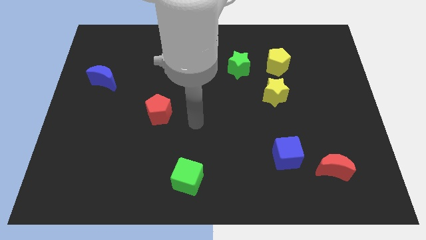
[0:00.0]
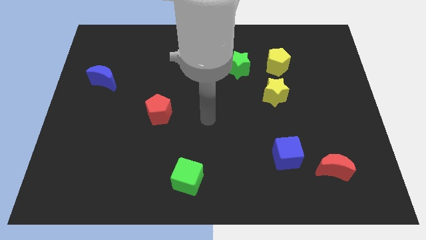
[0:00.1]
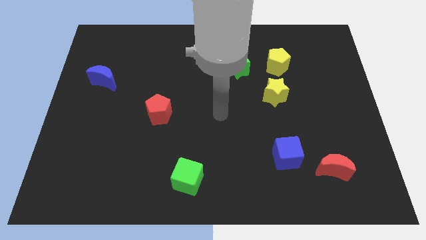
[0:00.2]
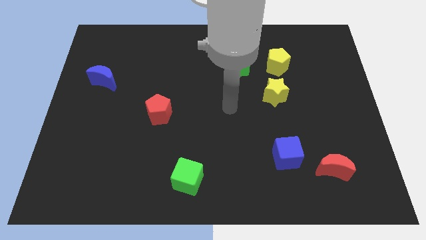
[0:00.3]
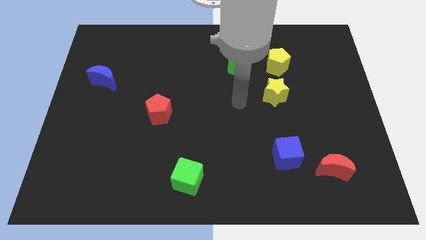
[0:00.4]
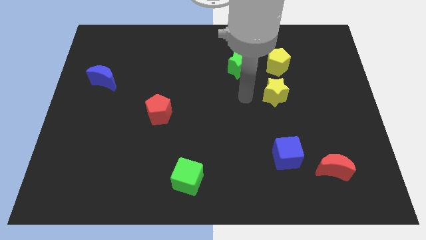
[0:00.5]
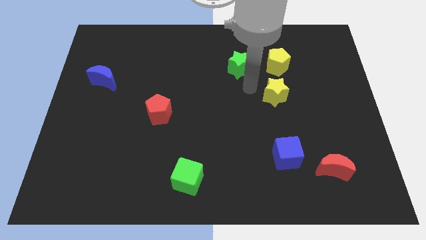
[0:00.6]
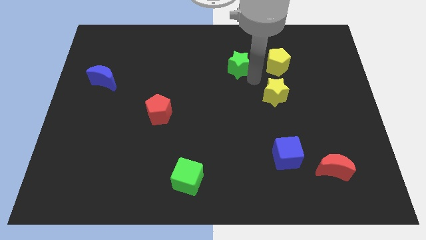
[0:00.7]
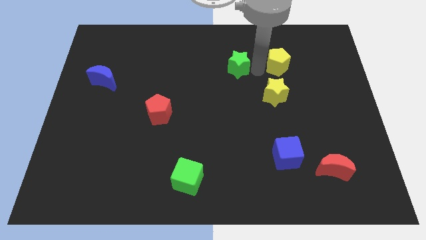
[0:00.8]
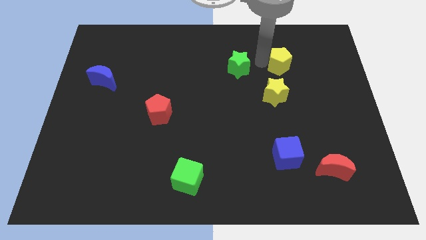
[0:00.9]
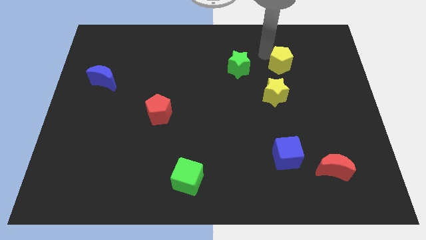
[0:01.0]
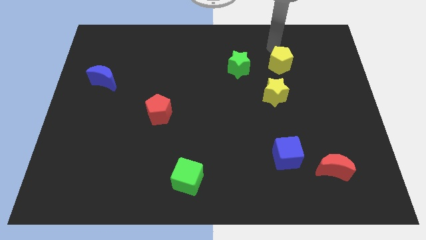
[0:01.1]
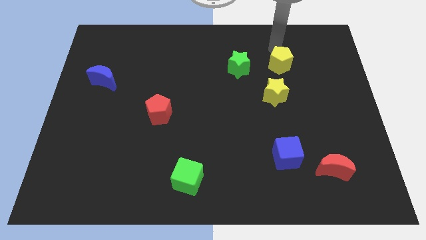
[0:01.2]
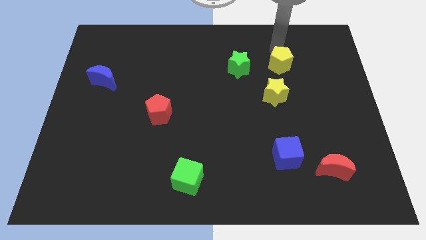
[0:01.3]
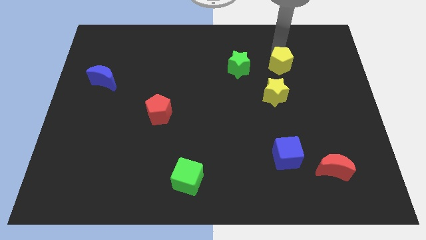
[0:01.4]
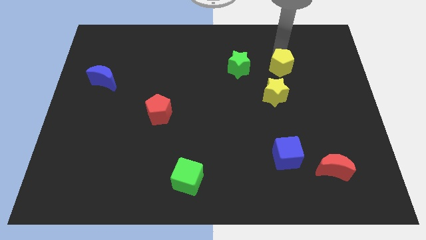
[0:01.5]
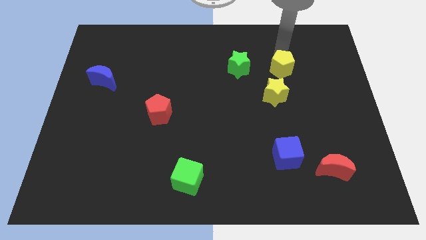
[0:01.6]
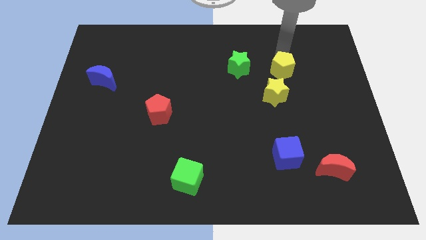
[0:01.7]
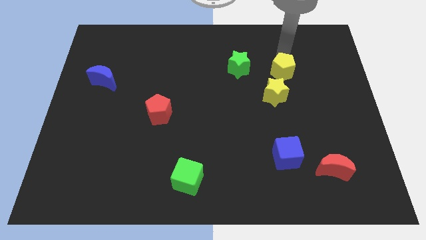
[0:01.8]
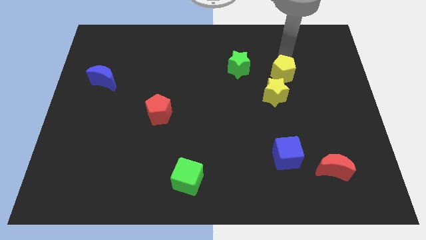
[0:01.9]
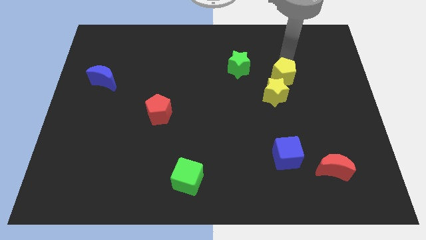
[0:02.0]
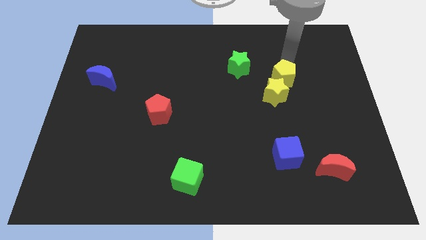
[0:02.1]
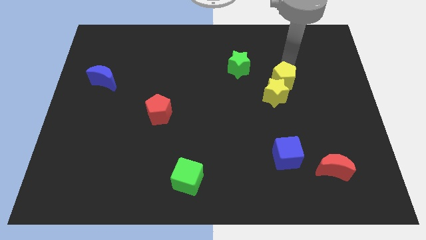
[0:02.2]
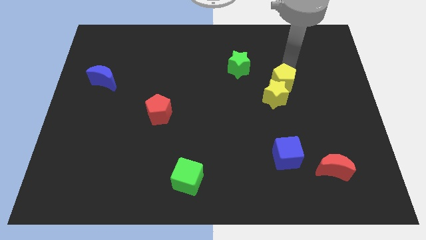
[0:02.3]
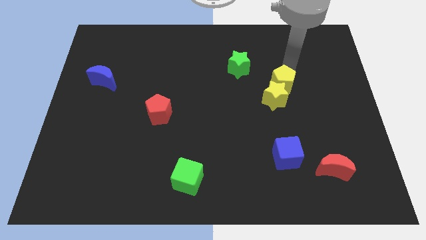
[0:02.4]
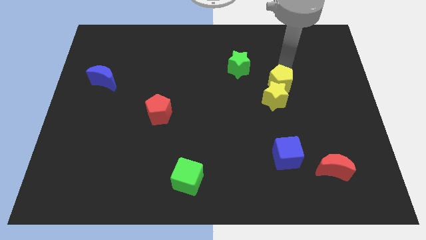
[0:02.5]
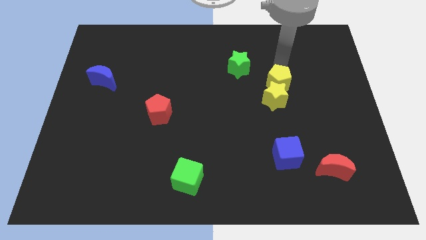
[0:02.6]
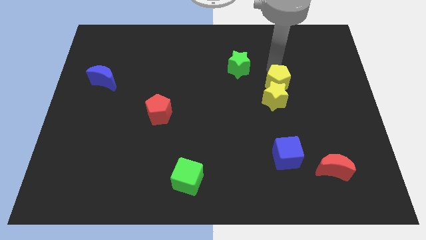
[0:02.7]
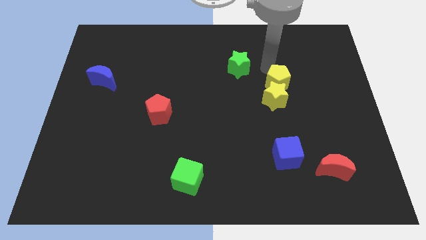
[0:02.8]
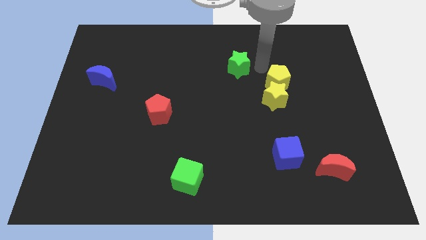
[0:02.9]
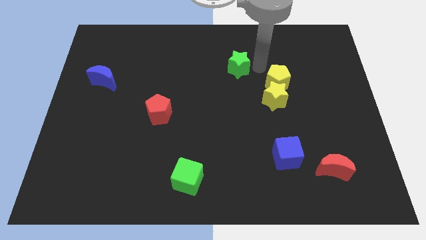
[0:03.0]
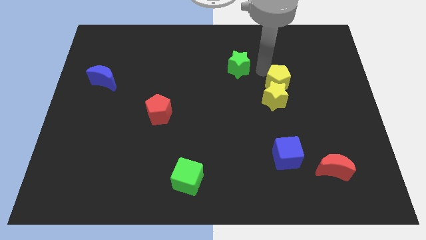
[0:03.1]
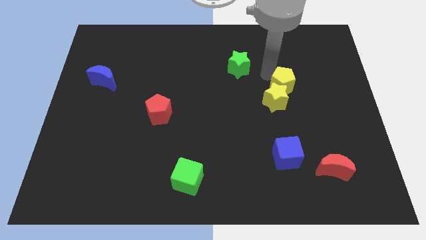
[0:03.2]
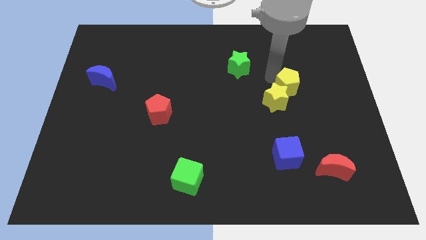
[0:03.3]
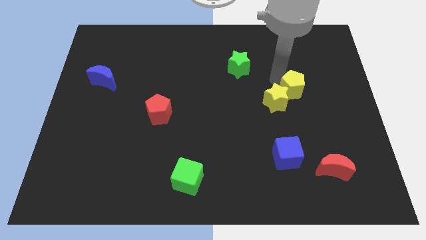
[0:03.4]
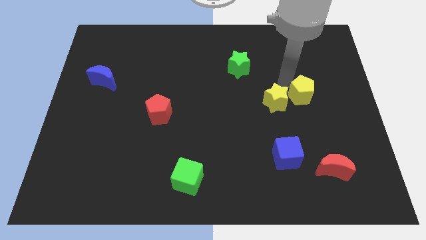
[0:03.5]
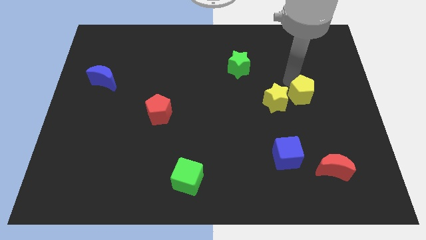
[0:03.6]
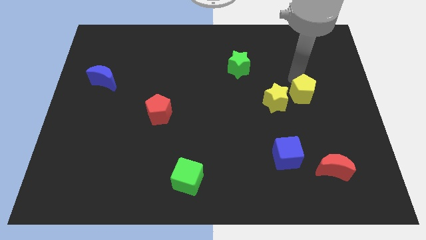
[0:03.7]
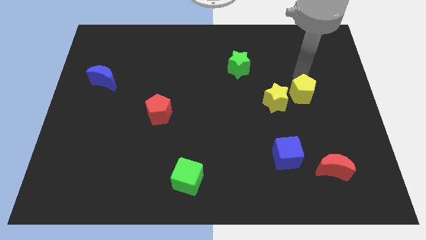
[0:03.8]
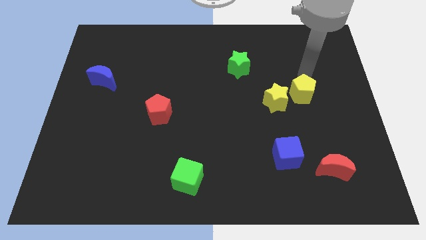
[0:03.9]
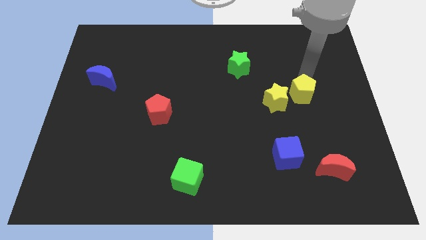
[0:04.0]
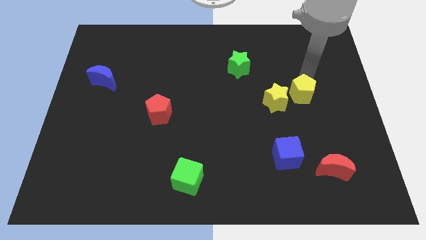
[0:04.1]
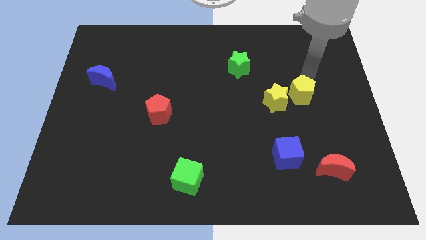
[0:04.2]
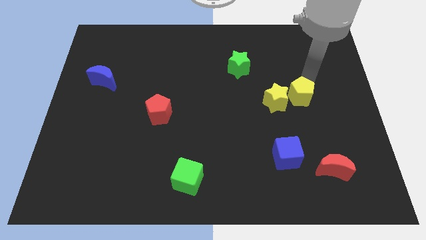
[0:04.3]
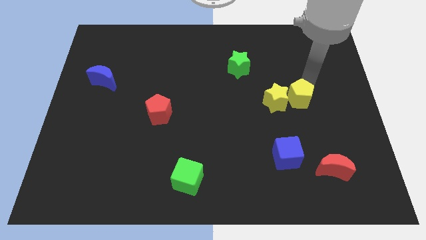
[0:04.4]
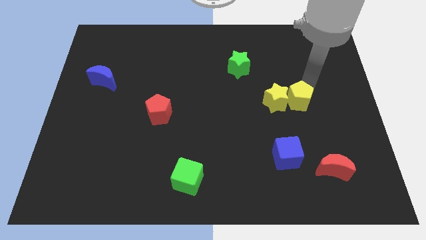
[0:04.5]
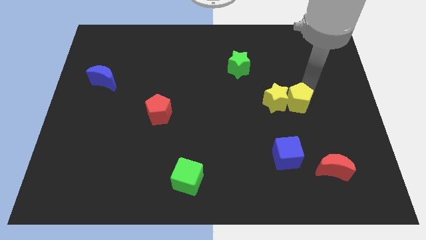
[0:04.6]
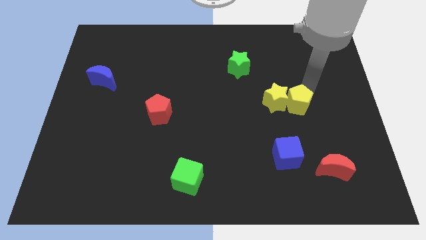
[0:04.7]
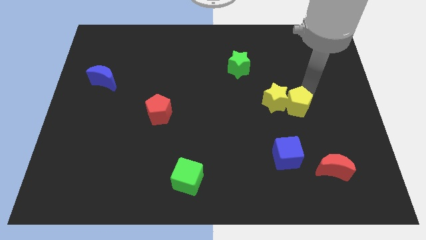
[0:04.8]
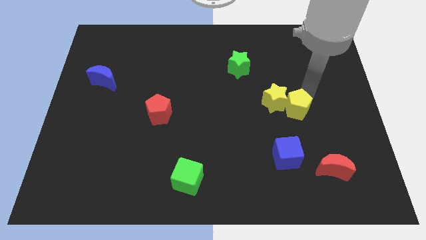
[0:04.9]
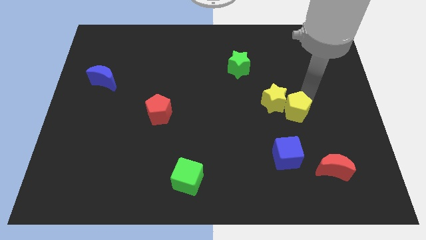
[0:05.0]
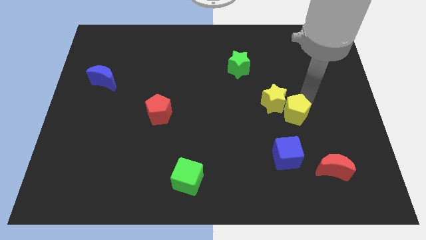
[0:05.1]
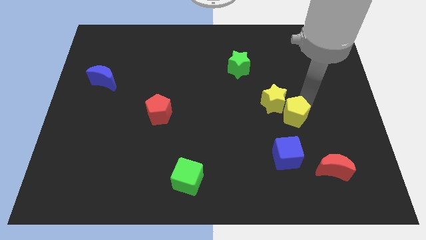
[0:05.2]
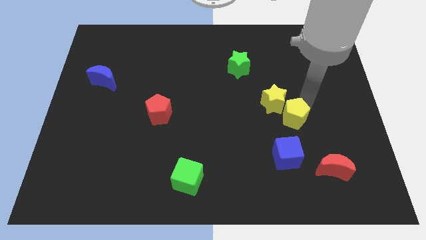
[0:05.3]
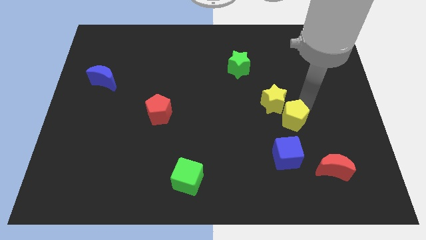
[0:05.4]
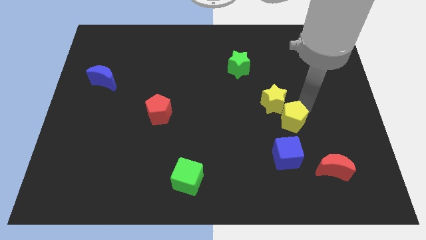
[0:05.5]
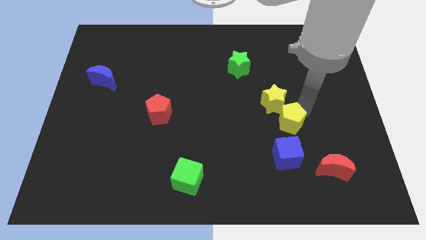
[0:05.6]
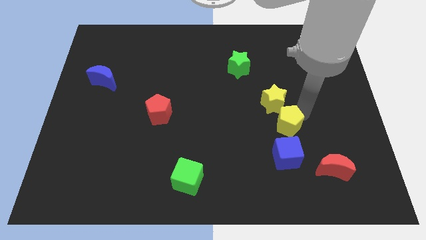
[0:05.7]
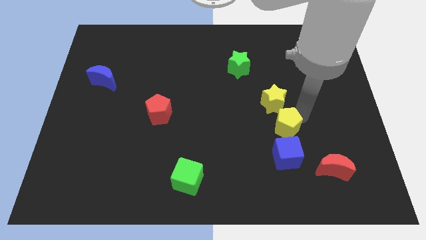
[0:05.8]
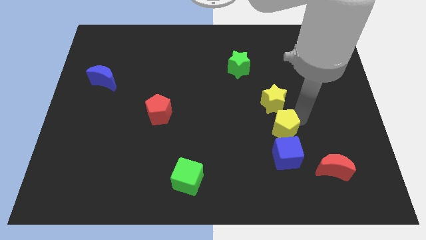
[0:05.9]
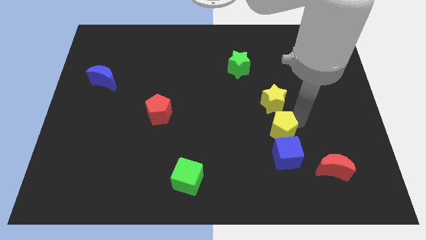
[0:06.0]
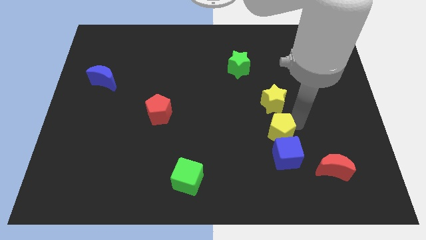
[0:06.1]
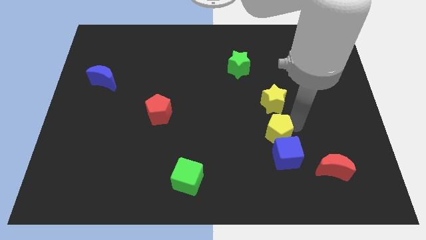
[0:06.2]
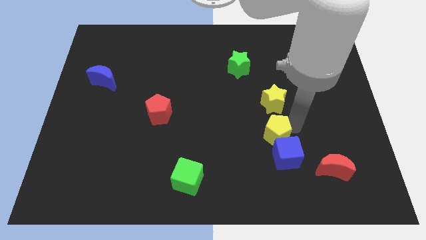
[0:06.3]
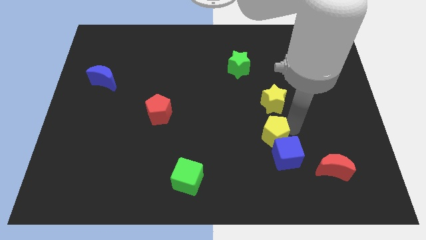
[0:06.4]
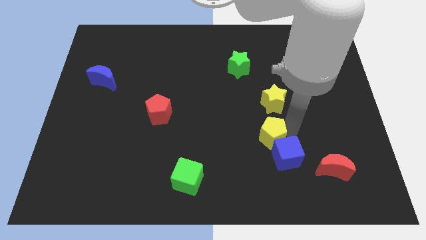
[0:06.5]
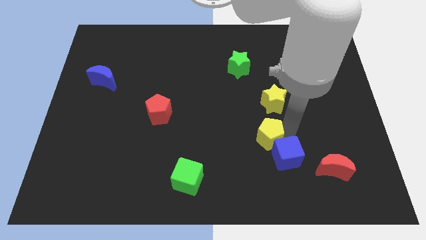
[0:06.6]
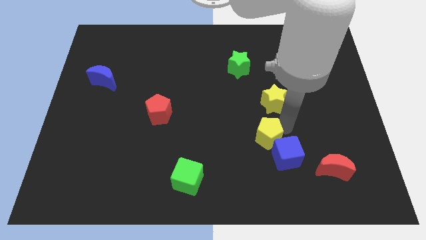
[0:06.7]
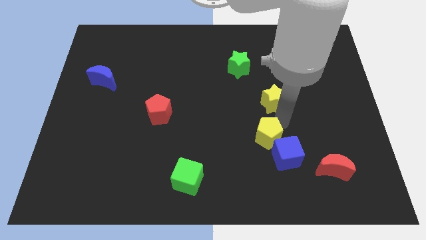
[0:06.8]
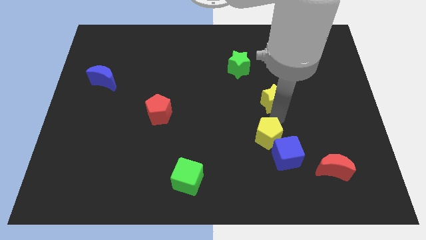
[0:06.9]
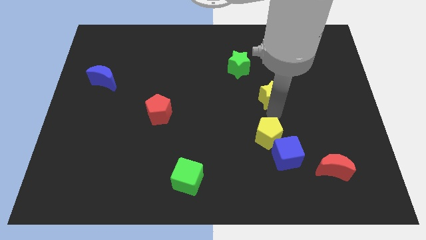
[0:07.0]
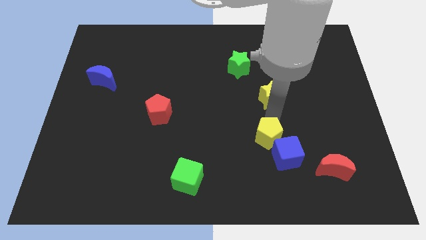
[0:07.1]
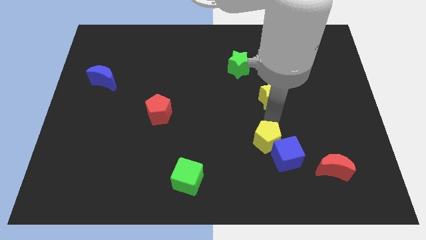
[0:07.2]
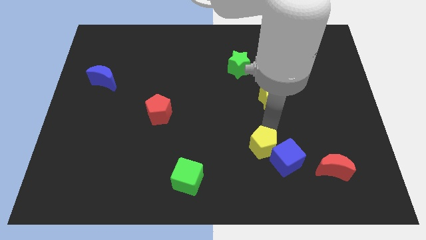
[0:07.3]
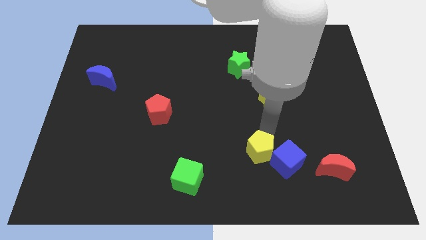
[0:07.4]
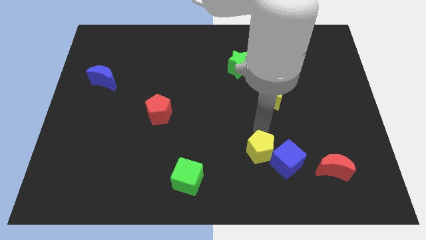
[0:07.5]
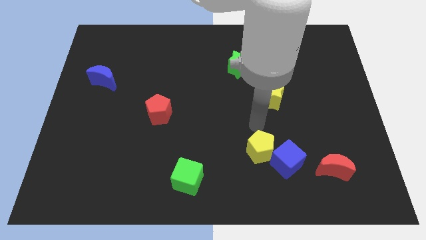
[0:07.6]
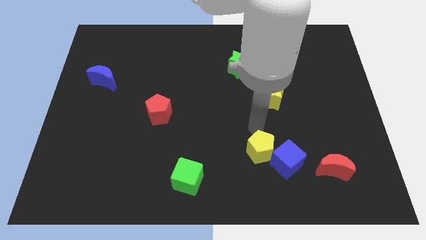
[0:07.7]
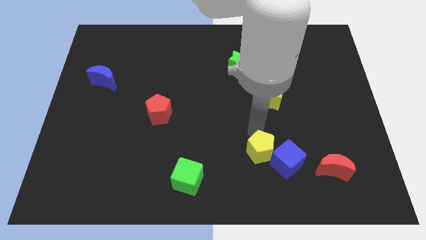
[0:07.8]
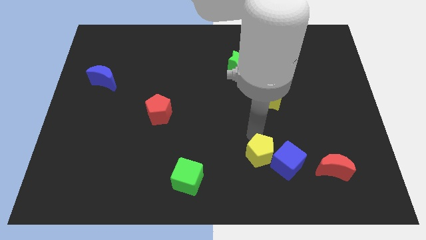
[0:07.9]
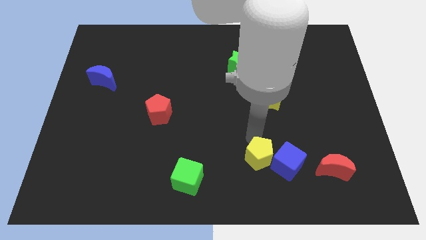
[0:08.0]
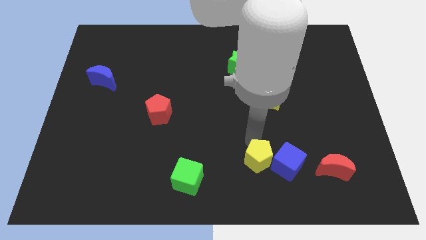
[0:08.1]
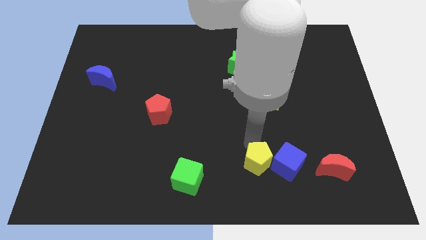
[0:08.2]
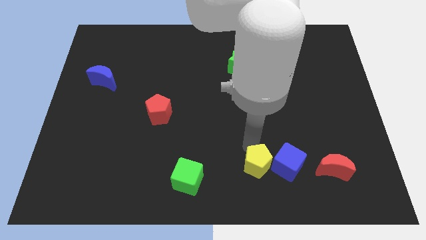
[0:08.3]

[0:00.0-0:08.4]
put the yellow pentagon to the bottom left side of the blue cube
